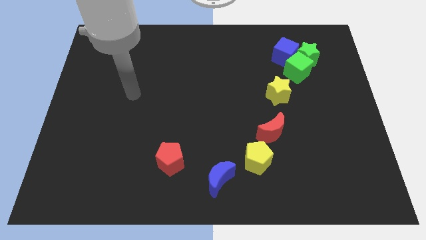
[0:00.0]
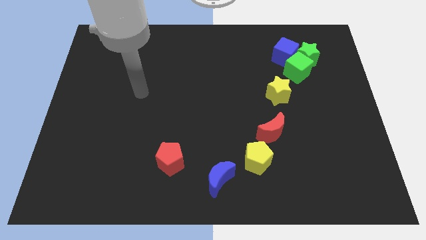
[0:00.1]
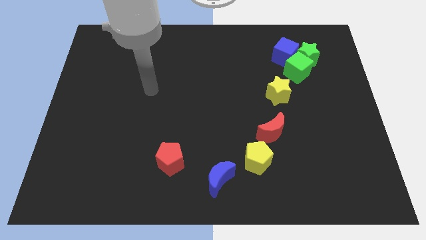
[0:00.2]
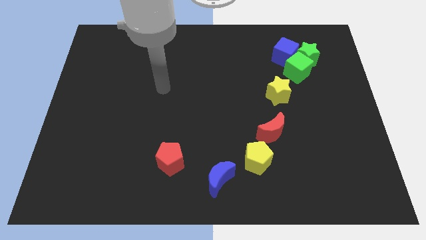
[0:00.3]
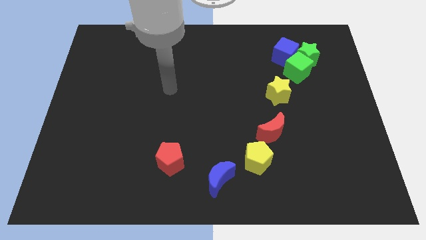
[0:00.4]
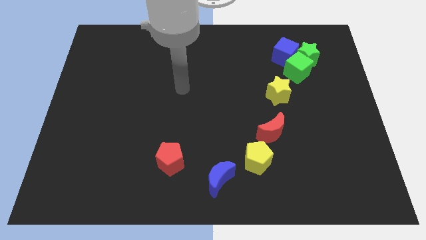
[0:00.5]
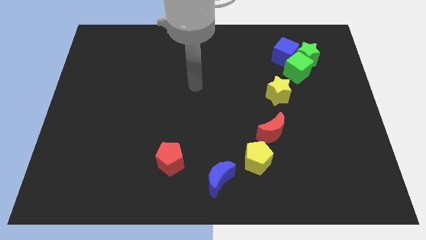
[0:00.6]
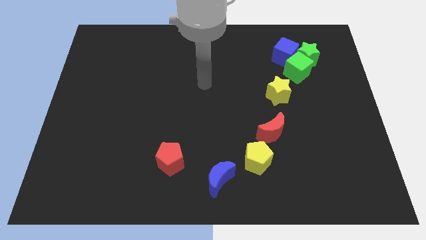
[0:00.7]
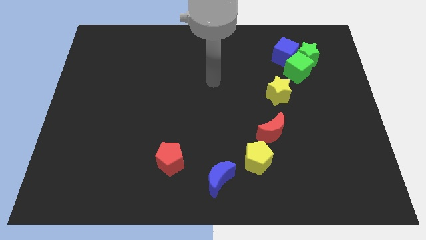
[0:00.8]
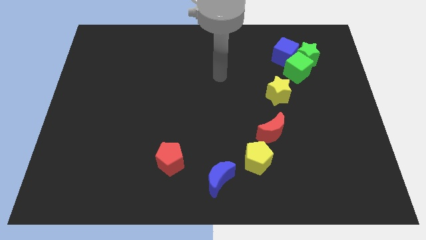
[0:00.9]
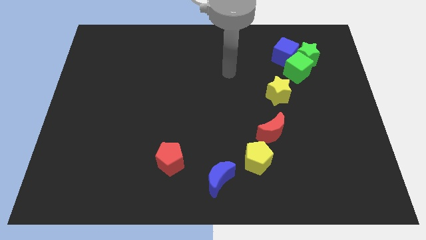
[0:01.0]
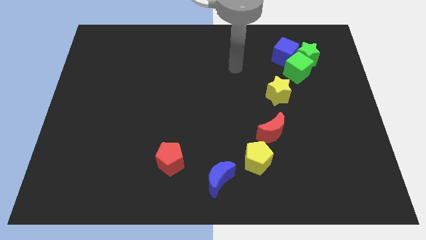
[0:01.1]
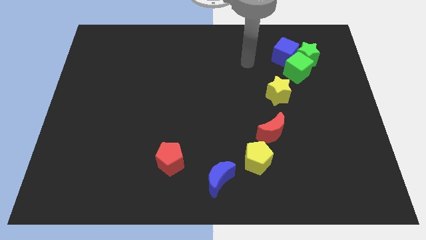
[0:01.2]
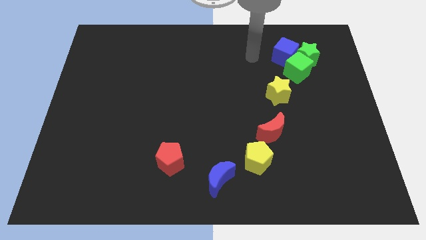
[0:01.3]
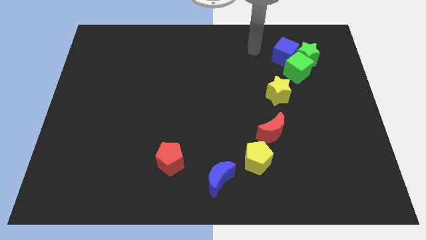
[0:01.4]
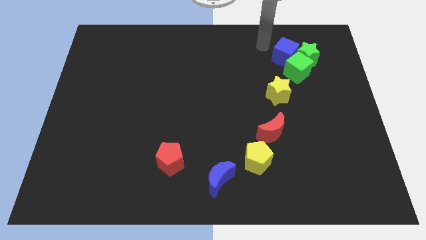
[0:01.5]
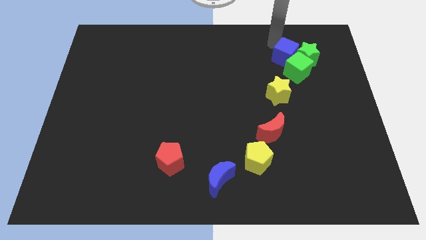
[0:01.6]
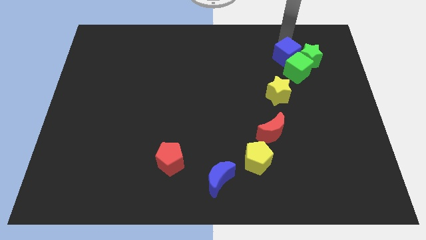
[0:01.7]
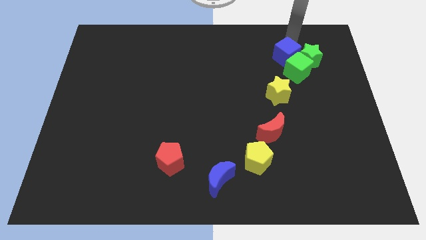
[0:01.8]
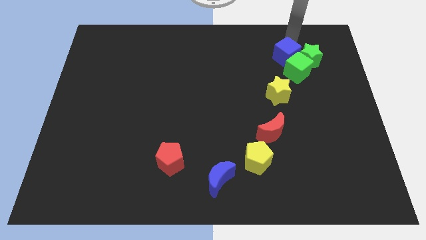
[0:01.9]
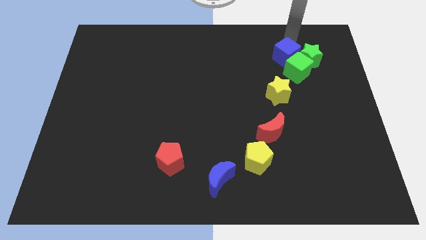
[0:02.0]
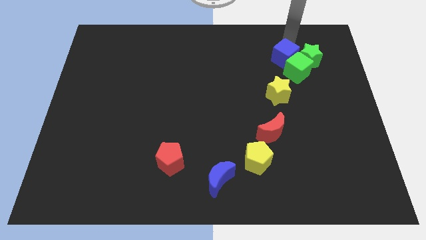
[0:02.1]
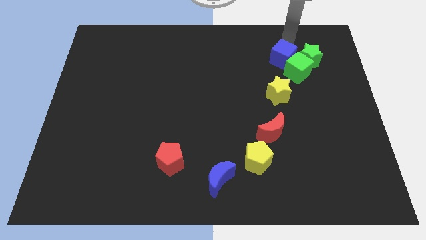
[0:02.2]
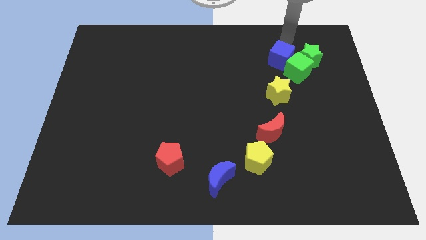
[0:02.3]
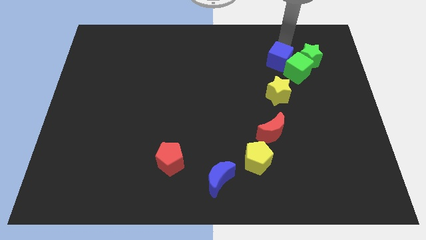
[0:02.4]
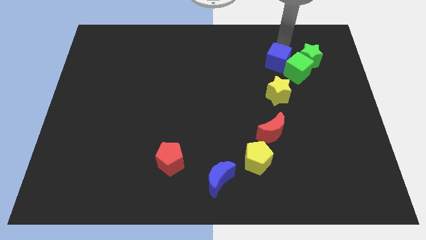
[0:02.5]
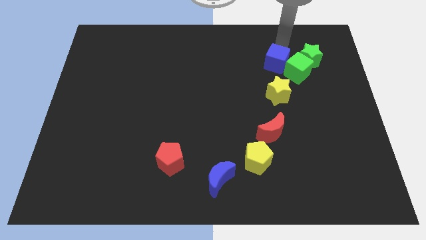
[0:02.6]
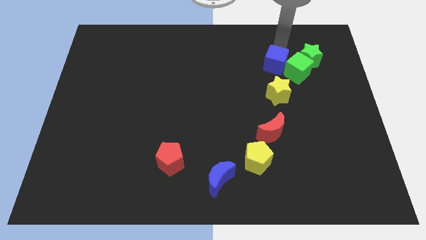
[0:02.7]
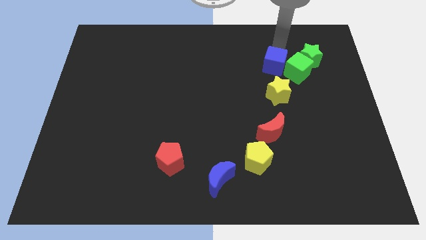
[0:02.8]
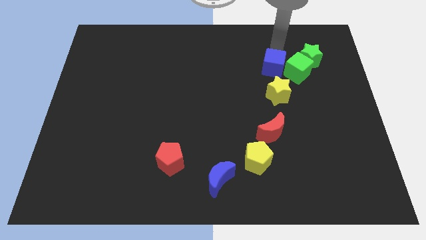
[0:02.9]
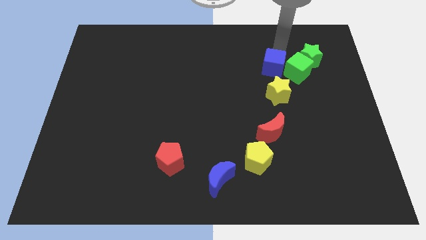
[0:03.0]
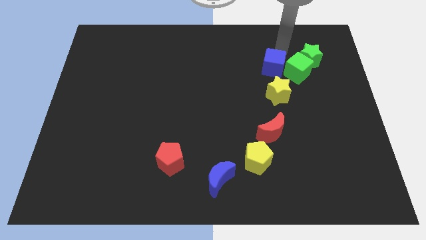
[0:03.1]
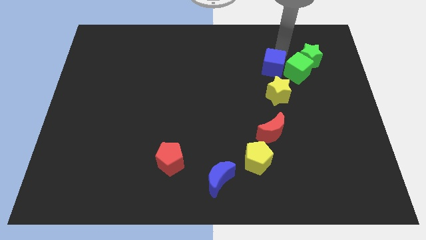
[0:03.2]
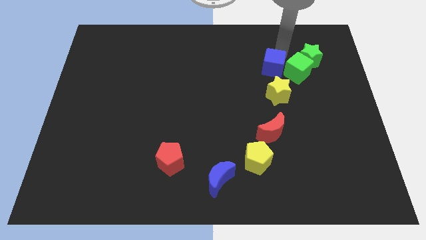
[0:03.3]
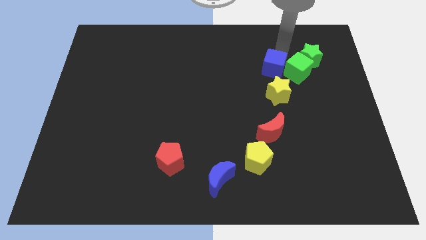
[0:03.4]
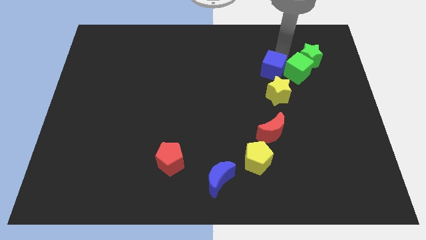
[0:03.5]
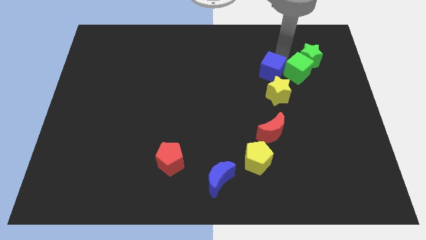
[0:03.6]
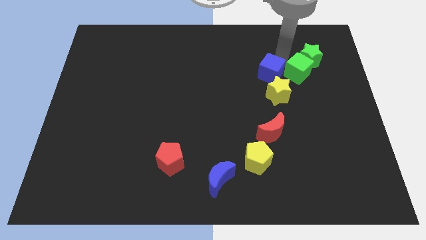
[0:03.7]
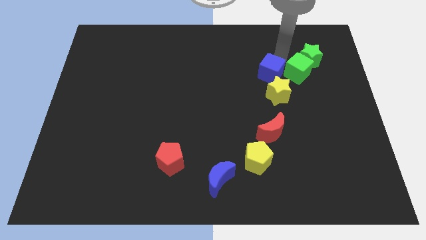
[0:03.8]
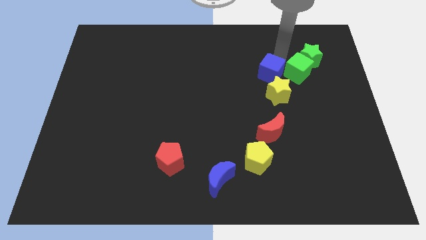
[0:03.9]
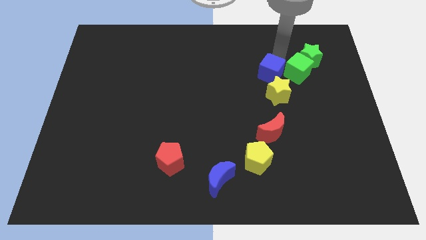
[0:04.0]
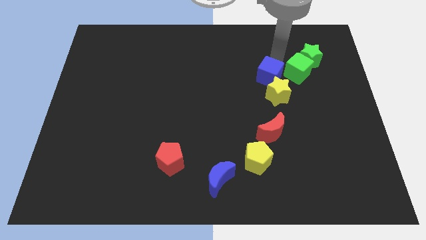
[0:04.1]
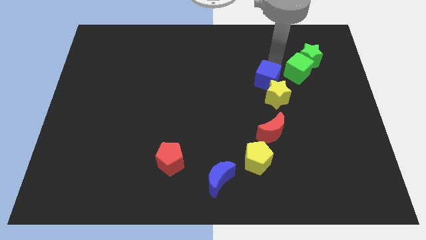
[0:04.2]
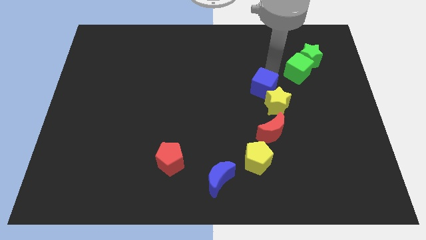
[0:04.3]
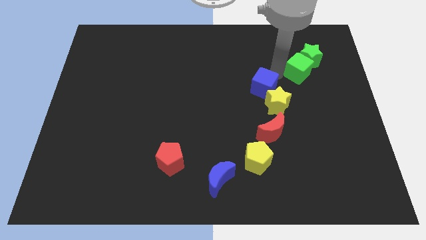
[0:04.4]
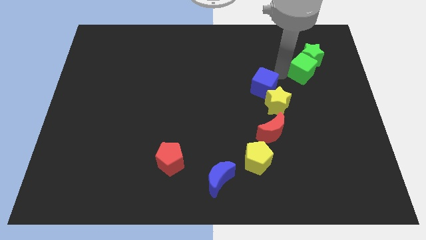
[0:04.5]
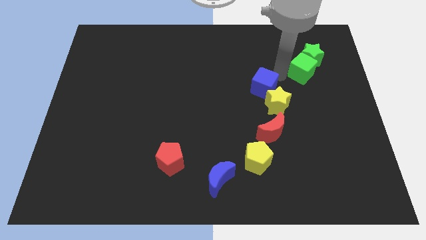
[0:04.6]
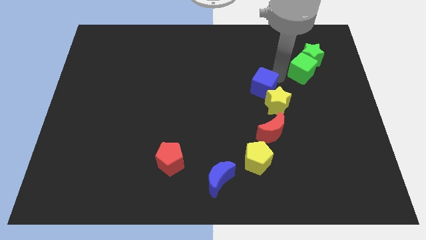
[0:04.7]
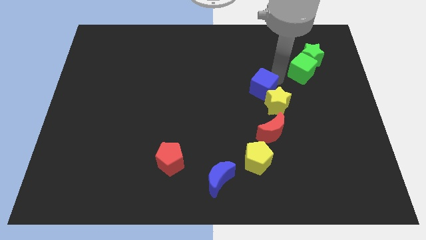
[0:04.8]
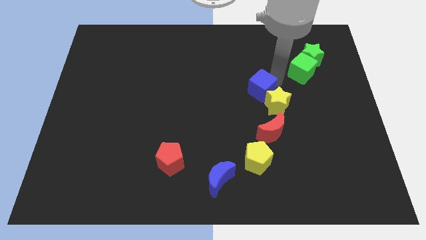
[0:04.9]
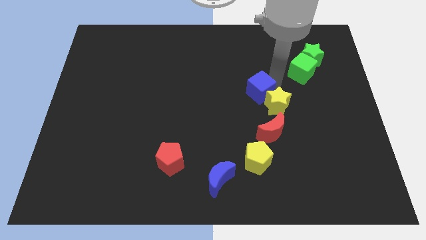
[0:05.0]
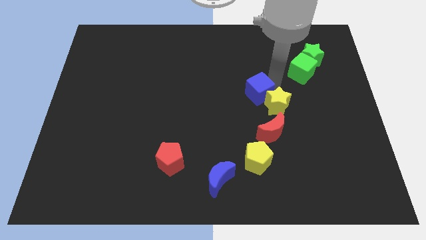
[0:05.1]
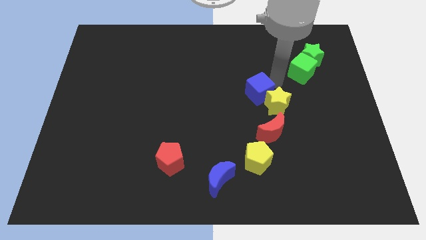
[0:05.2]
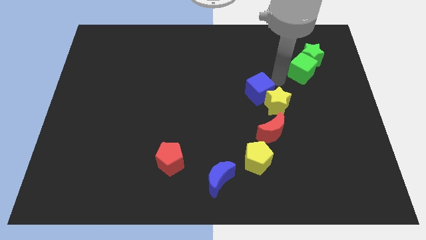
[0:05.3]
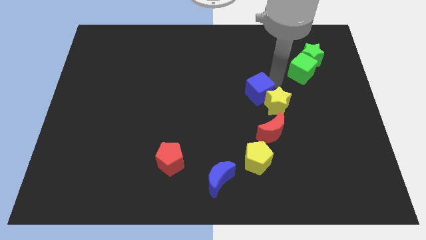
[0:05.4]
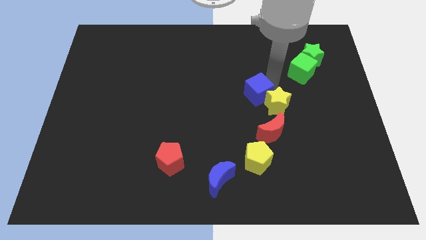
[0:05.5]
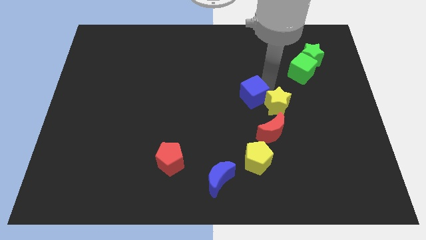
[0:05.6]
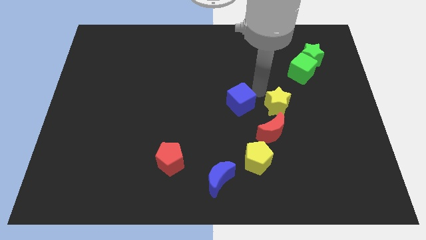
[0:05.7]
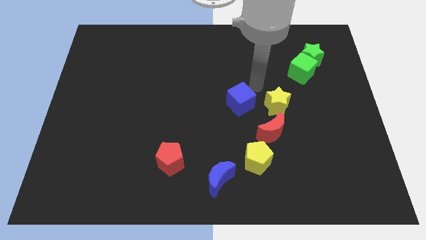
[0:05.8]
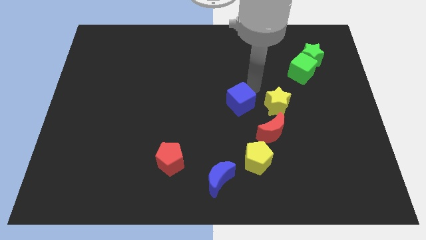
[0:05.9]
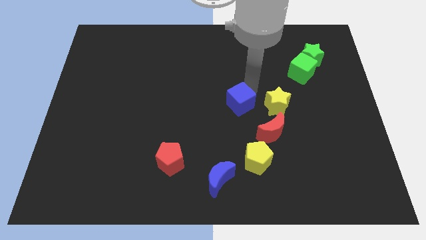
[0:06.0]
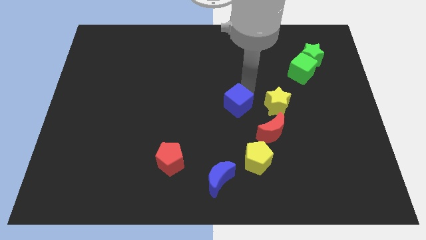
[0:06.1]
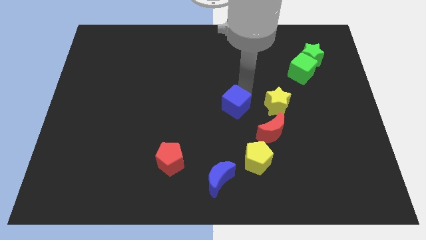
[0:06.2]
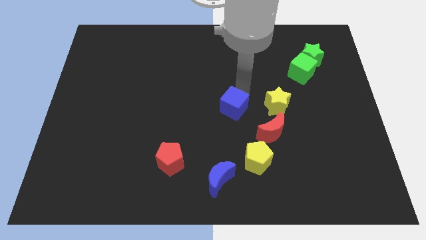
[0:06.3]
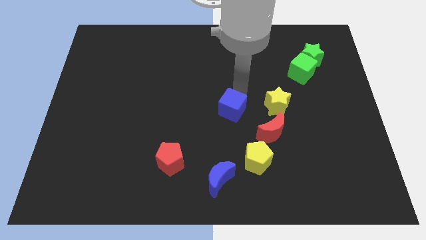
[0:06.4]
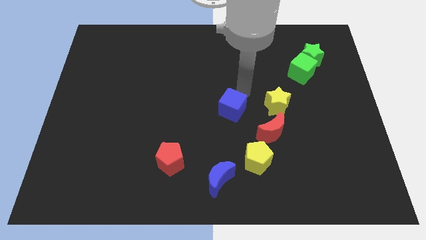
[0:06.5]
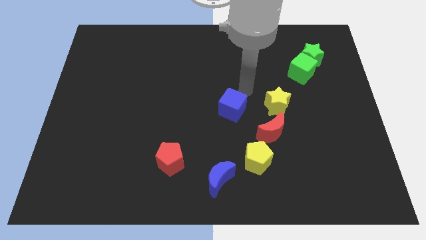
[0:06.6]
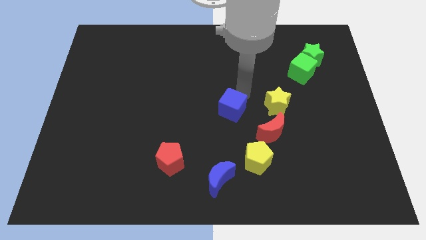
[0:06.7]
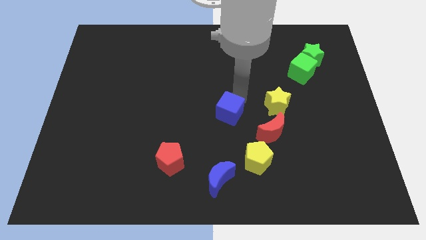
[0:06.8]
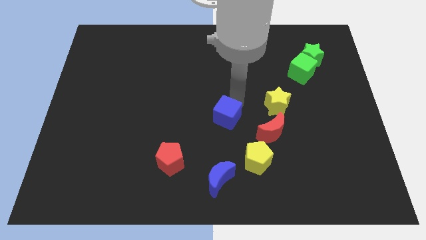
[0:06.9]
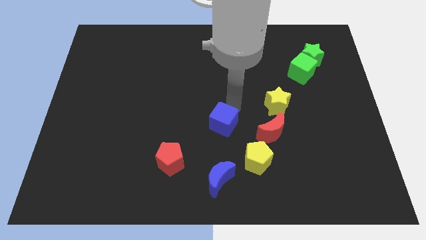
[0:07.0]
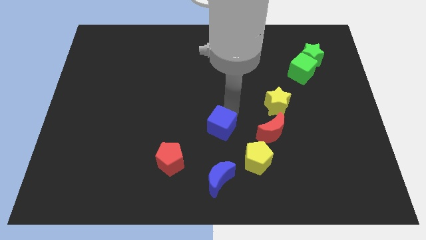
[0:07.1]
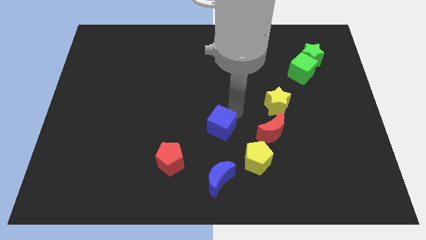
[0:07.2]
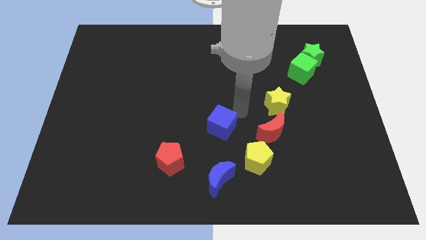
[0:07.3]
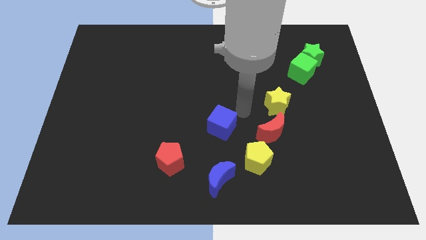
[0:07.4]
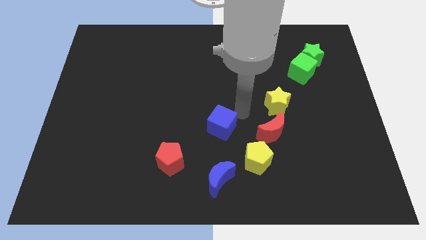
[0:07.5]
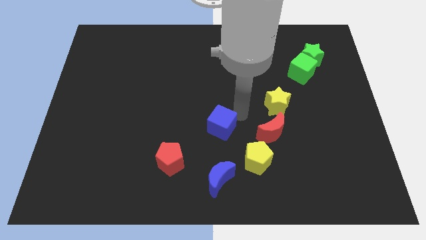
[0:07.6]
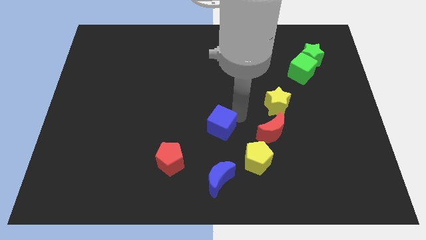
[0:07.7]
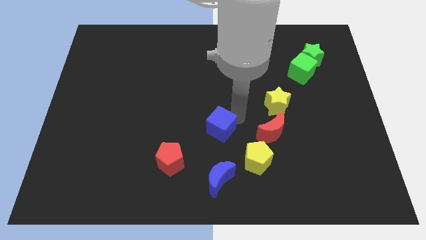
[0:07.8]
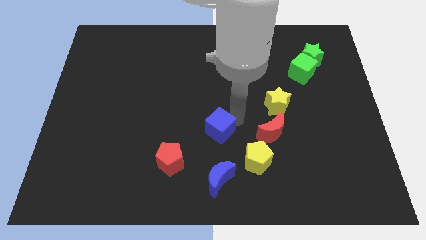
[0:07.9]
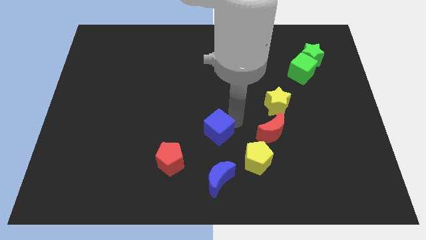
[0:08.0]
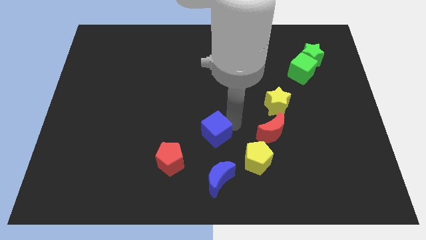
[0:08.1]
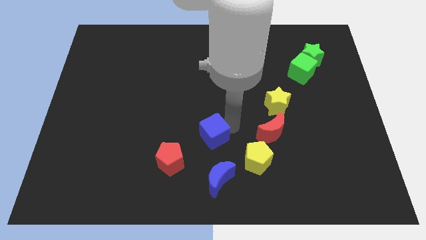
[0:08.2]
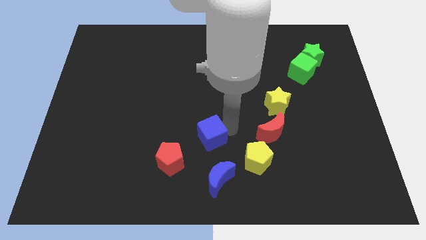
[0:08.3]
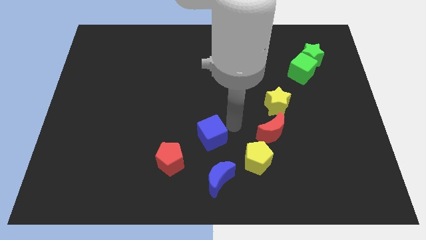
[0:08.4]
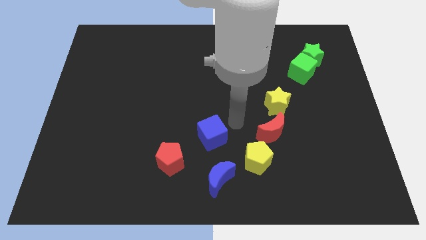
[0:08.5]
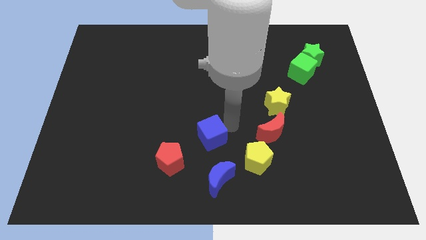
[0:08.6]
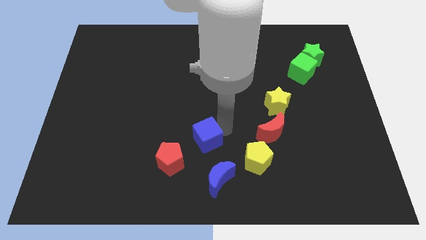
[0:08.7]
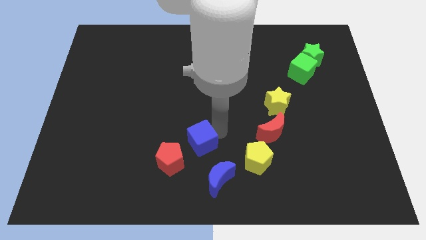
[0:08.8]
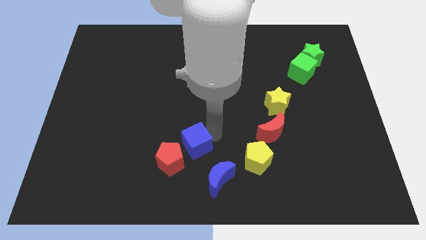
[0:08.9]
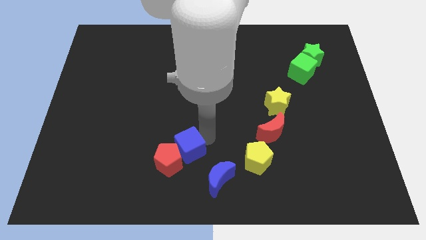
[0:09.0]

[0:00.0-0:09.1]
put the blue cube close to the red pentagon
